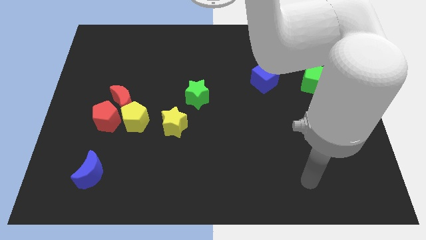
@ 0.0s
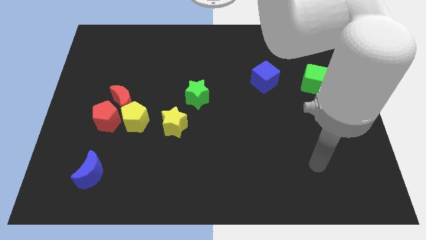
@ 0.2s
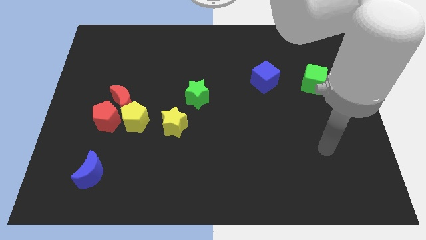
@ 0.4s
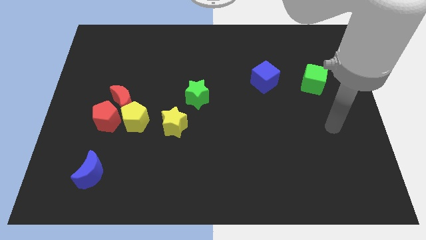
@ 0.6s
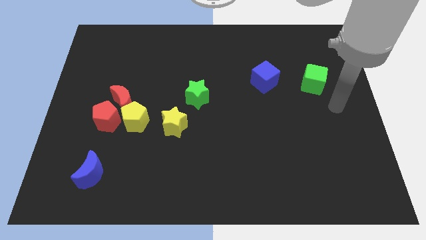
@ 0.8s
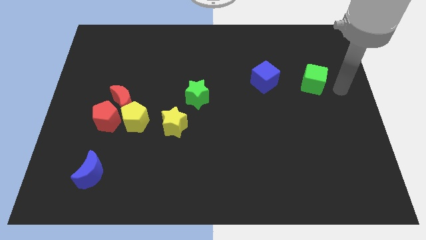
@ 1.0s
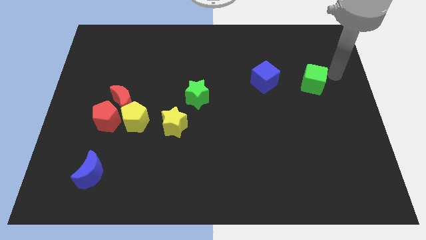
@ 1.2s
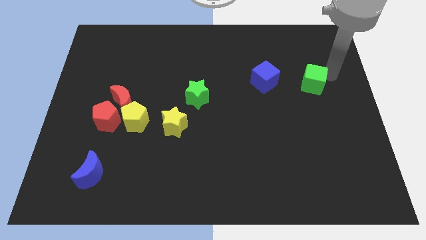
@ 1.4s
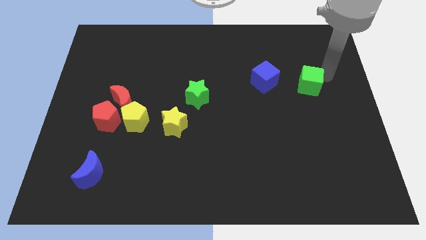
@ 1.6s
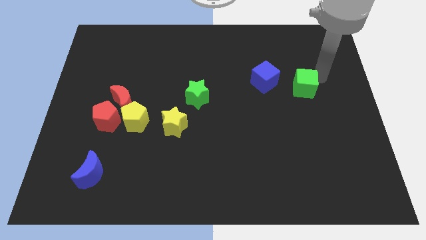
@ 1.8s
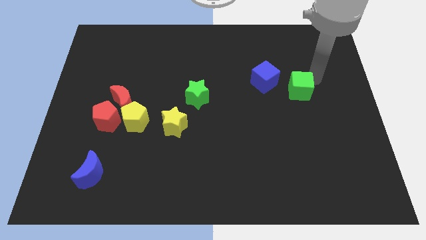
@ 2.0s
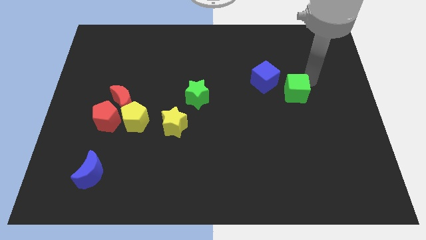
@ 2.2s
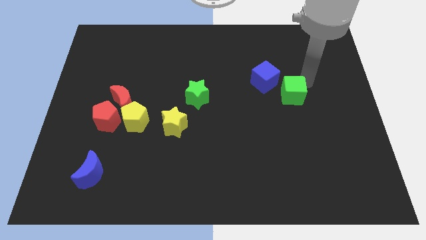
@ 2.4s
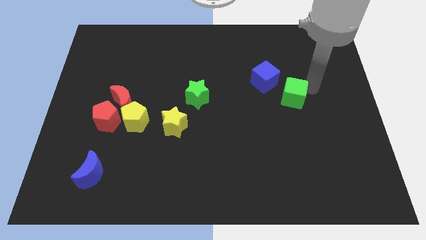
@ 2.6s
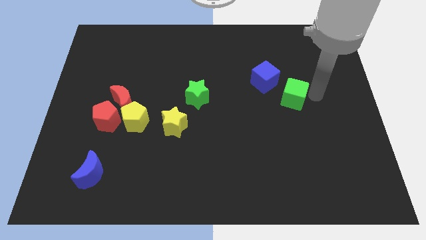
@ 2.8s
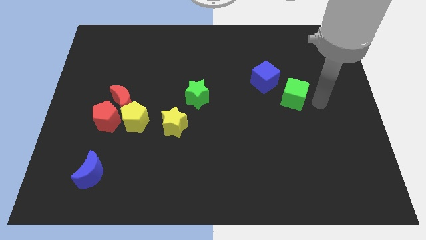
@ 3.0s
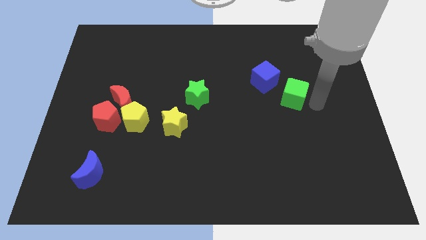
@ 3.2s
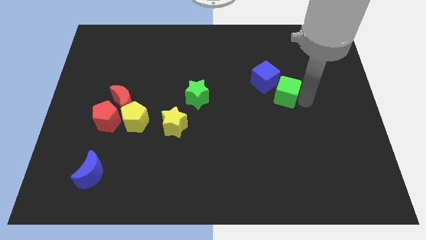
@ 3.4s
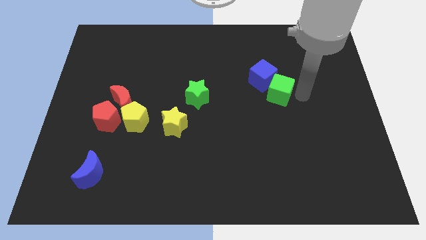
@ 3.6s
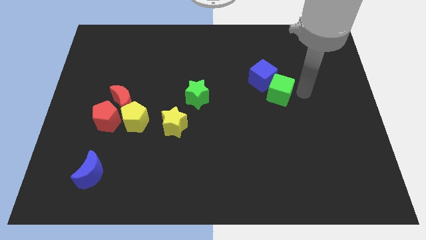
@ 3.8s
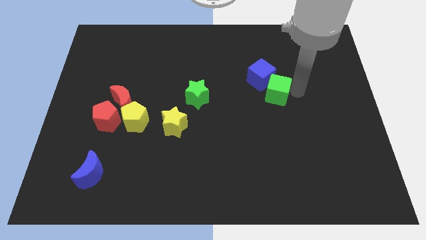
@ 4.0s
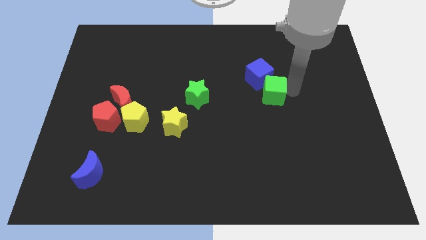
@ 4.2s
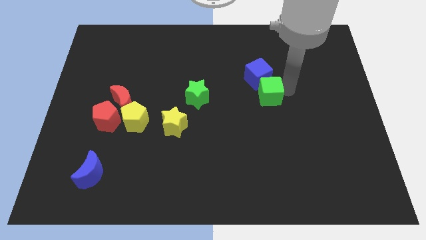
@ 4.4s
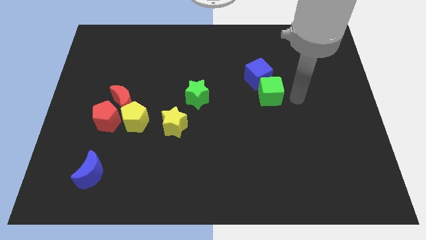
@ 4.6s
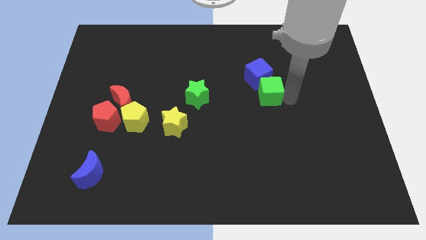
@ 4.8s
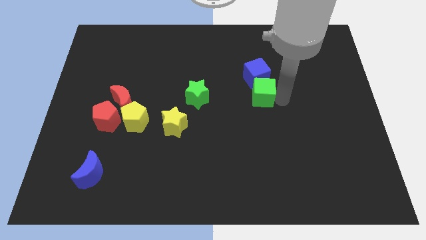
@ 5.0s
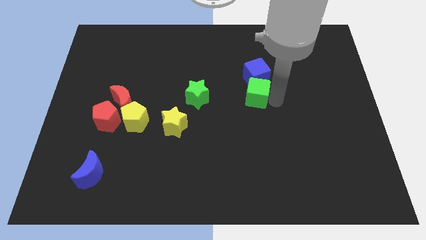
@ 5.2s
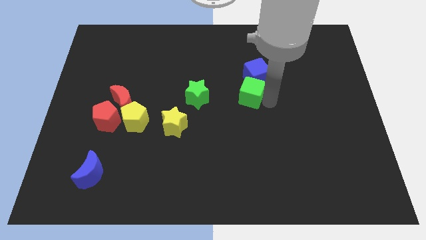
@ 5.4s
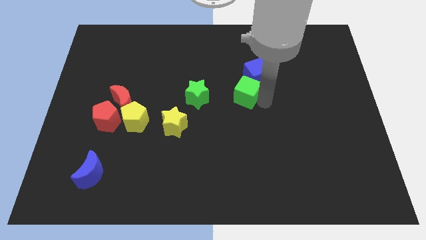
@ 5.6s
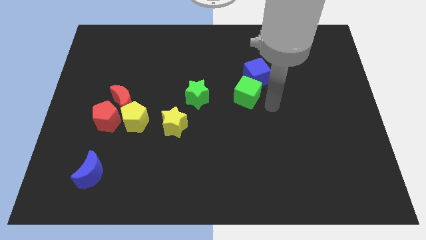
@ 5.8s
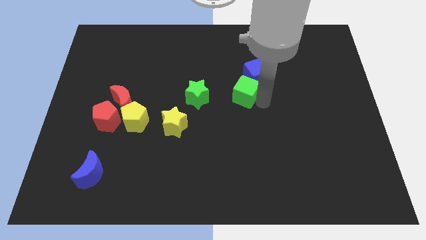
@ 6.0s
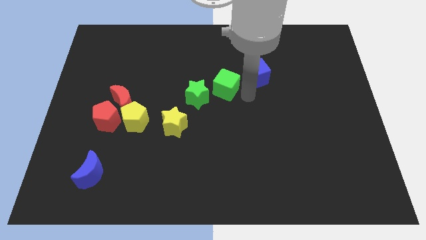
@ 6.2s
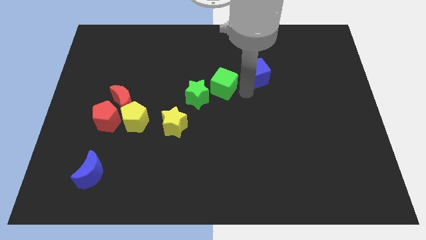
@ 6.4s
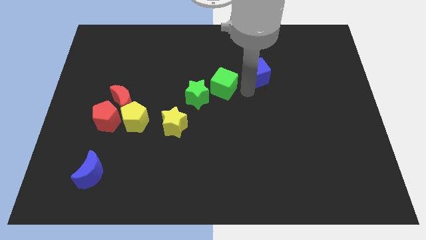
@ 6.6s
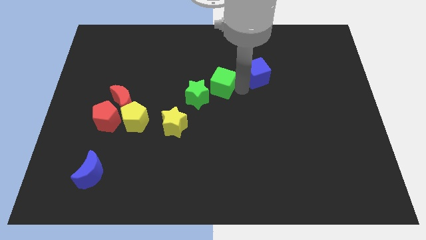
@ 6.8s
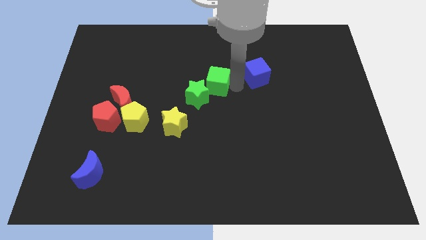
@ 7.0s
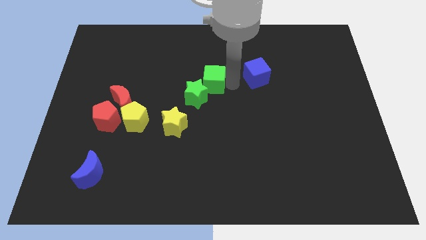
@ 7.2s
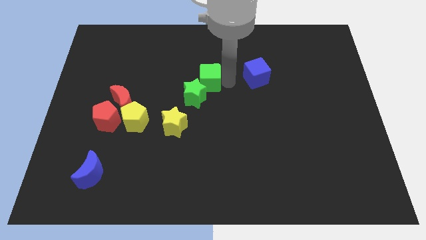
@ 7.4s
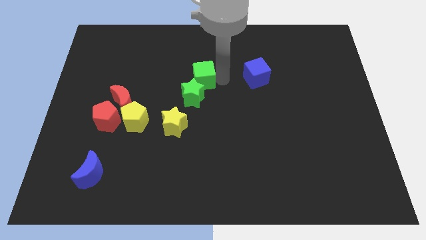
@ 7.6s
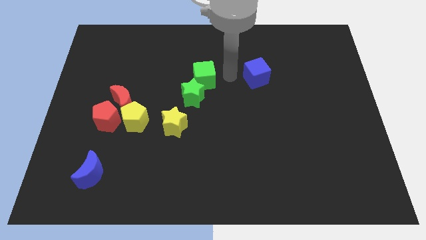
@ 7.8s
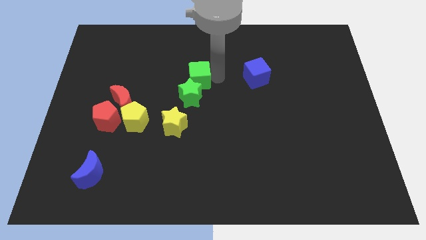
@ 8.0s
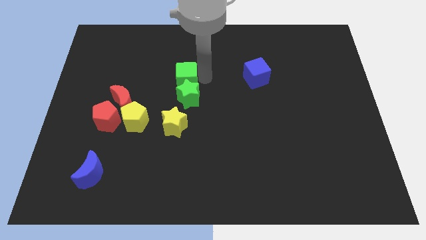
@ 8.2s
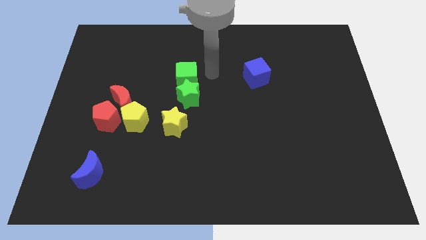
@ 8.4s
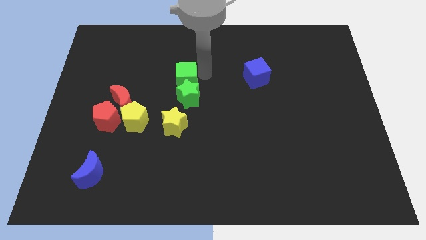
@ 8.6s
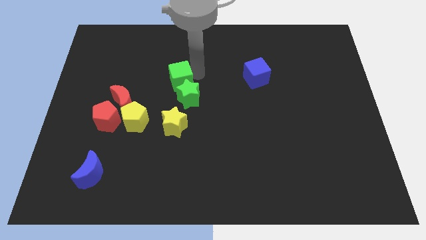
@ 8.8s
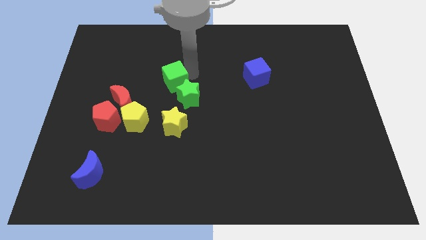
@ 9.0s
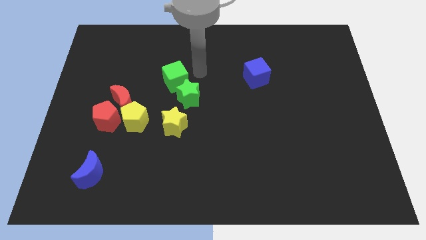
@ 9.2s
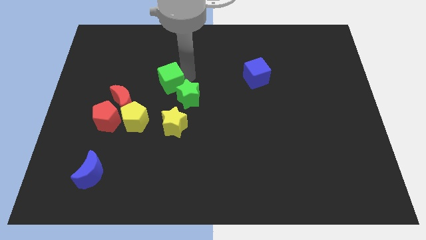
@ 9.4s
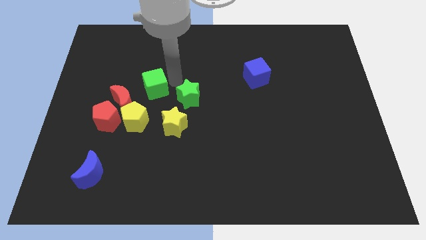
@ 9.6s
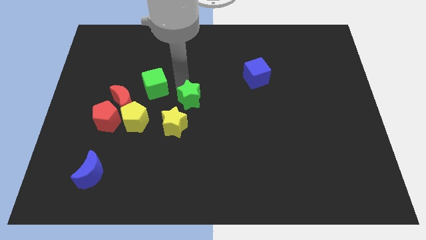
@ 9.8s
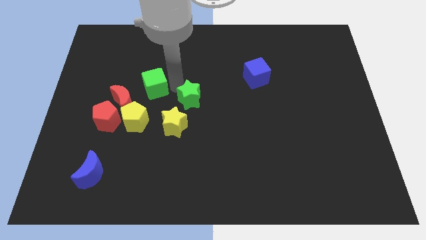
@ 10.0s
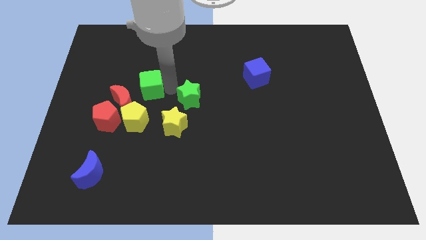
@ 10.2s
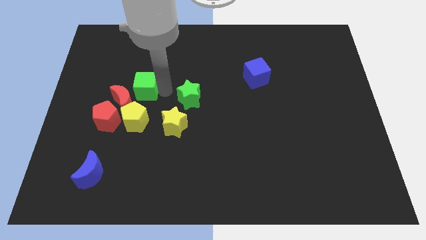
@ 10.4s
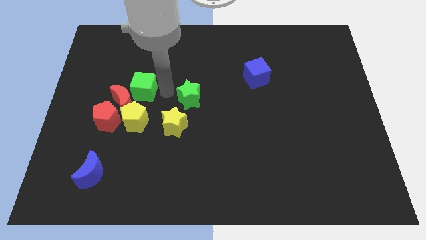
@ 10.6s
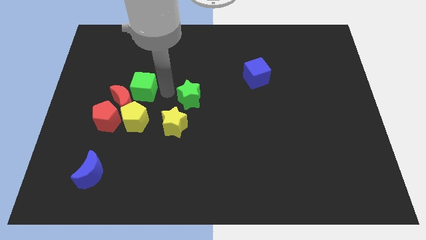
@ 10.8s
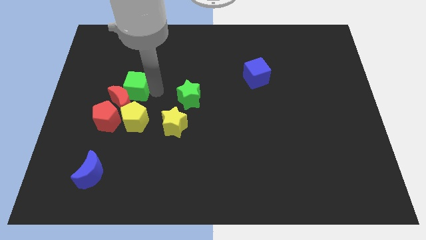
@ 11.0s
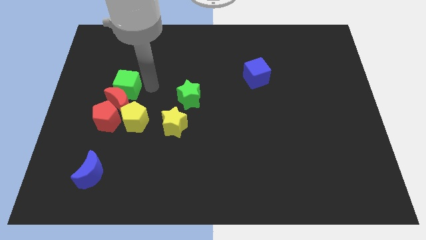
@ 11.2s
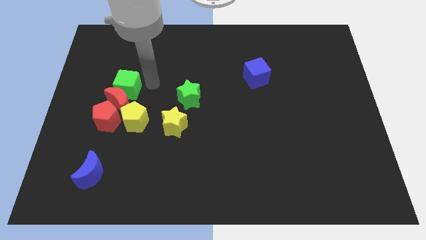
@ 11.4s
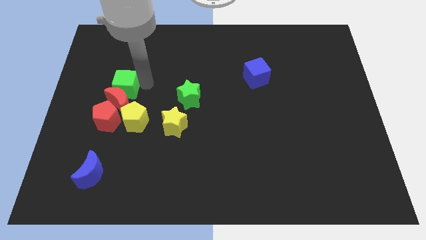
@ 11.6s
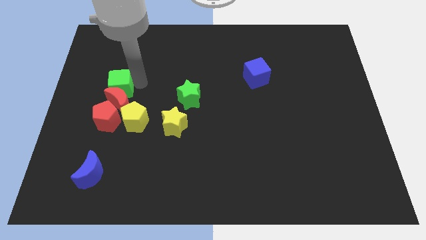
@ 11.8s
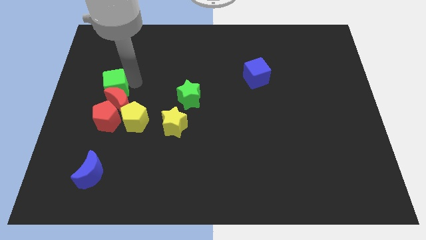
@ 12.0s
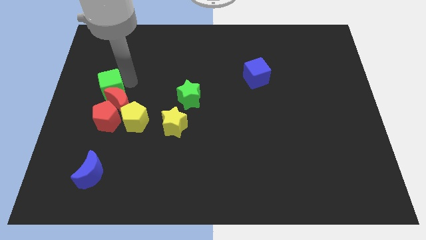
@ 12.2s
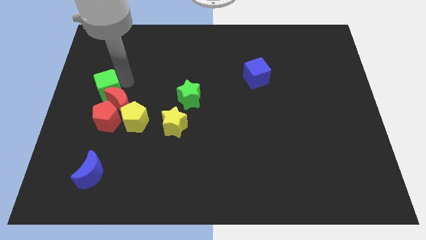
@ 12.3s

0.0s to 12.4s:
push the green cube to the center left

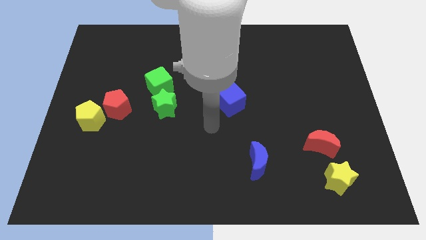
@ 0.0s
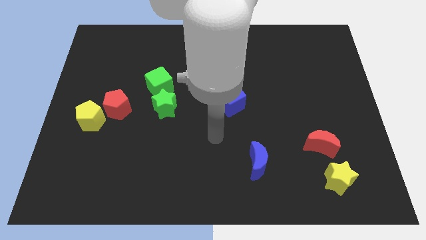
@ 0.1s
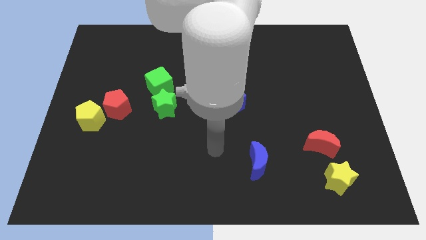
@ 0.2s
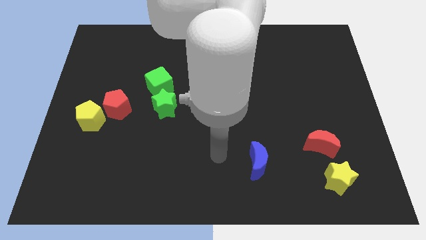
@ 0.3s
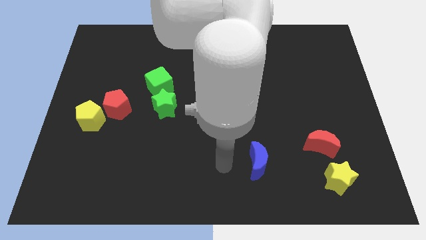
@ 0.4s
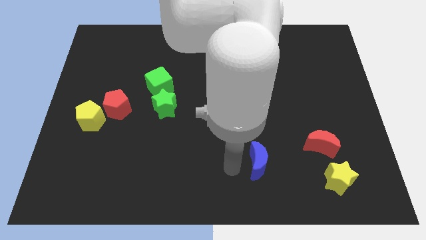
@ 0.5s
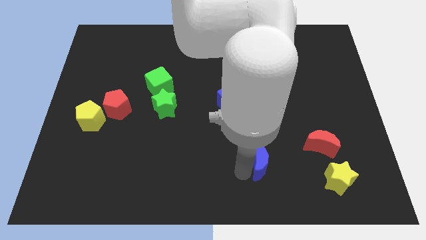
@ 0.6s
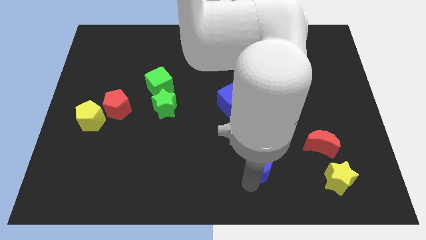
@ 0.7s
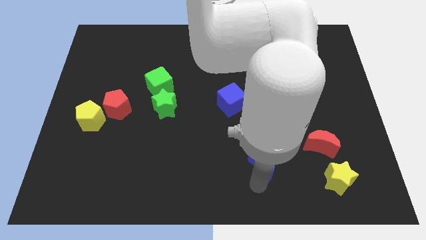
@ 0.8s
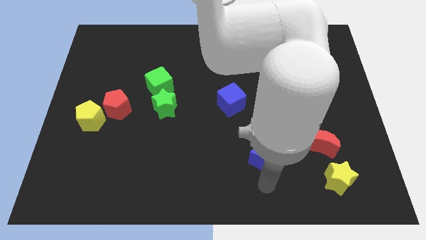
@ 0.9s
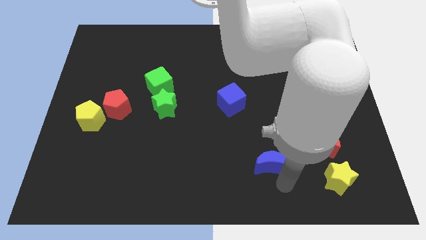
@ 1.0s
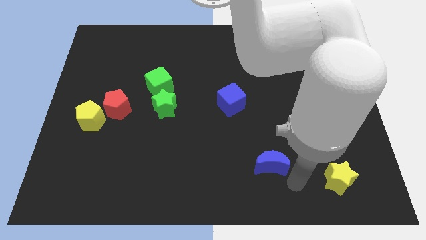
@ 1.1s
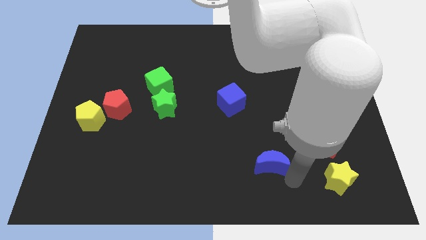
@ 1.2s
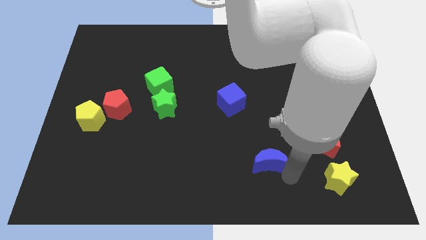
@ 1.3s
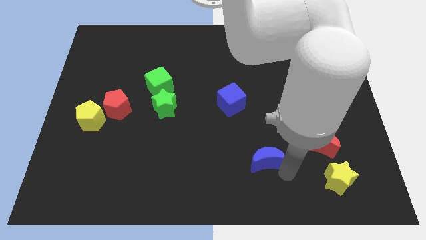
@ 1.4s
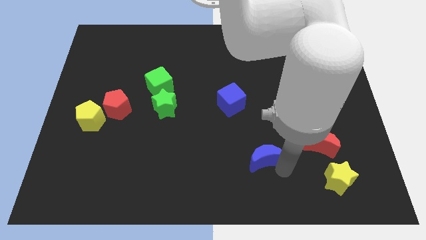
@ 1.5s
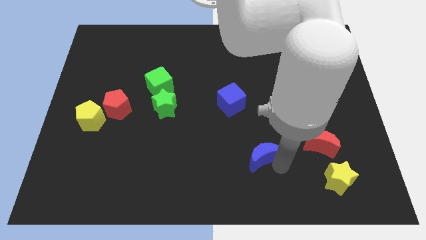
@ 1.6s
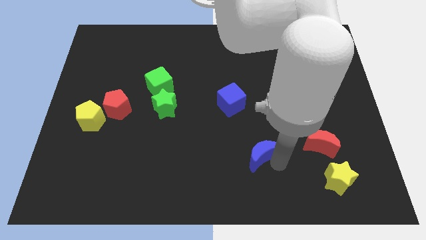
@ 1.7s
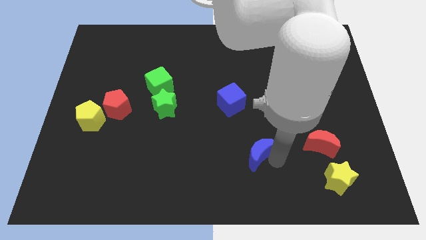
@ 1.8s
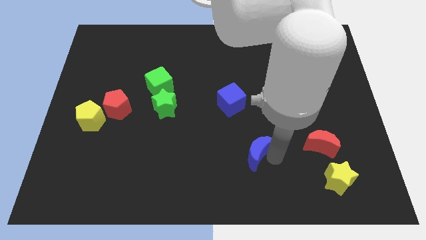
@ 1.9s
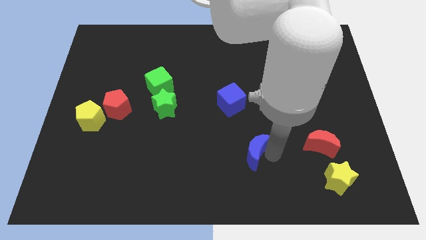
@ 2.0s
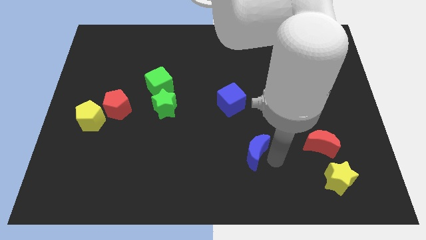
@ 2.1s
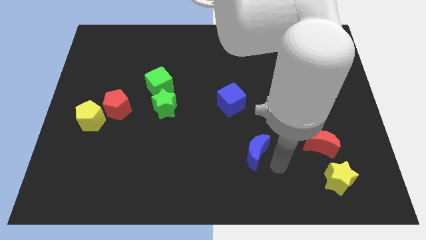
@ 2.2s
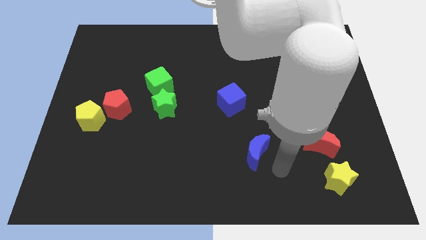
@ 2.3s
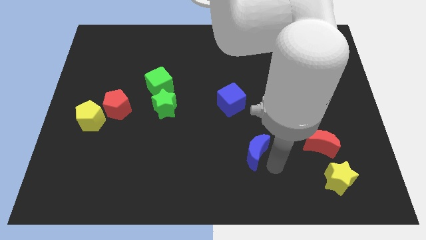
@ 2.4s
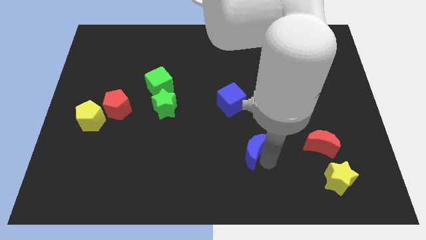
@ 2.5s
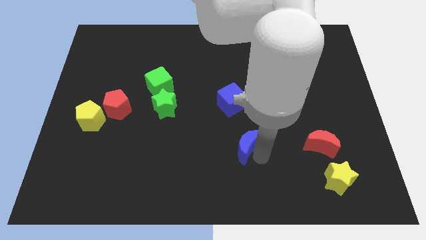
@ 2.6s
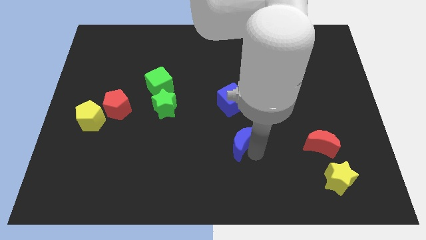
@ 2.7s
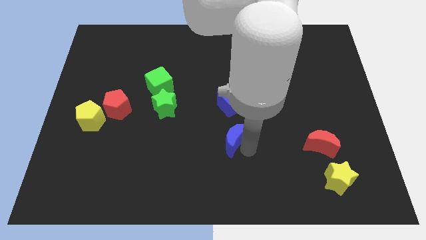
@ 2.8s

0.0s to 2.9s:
put the blue moon to the center
